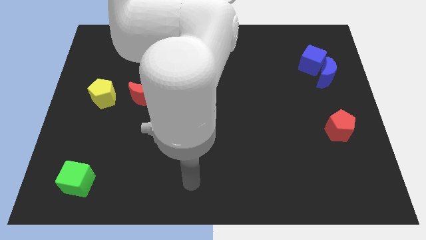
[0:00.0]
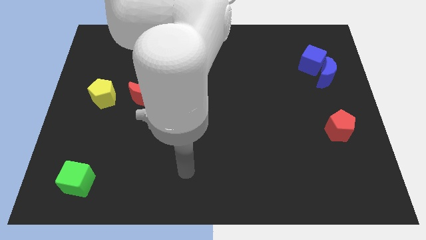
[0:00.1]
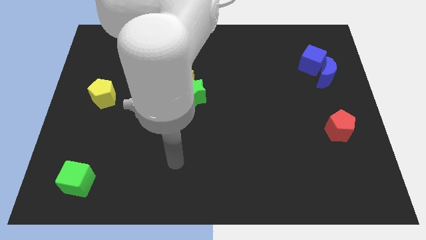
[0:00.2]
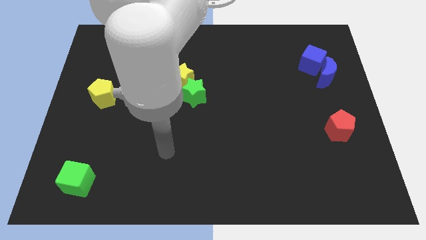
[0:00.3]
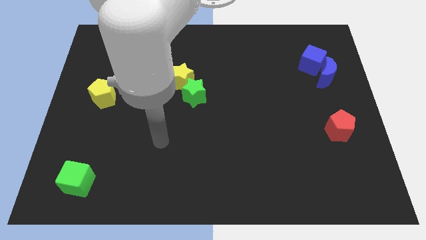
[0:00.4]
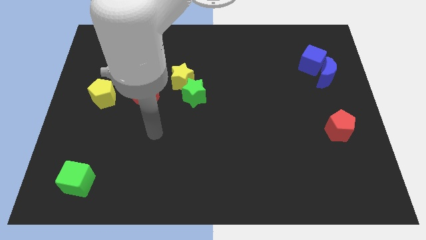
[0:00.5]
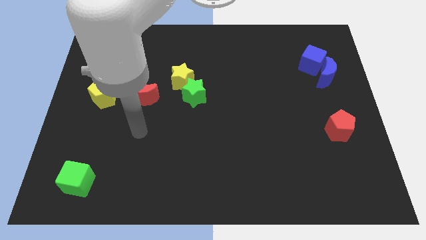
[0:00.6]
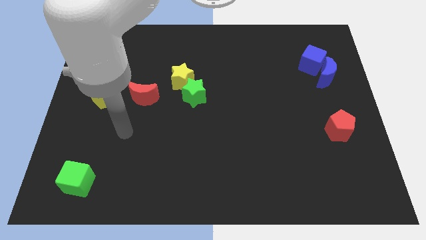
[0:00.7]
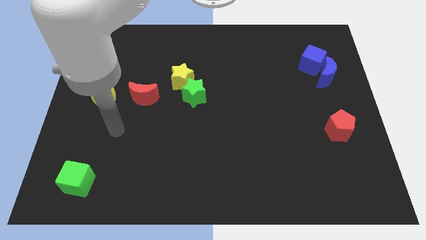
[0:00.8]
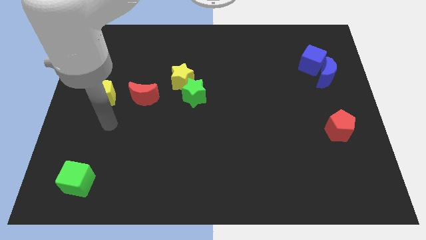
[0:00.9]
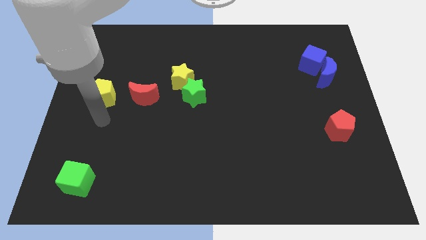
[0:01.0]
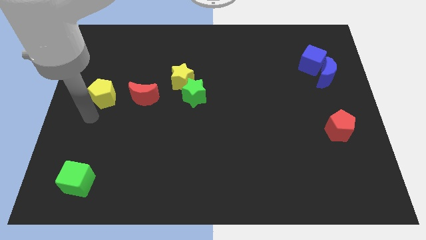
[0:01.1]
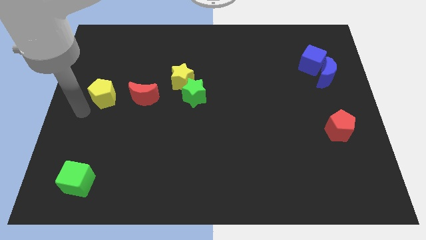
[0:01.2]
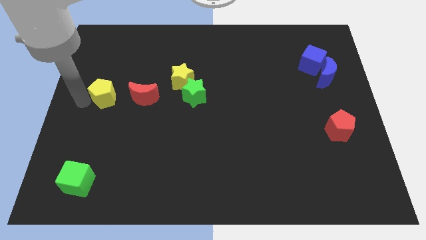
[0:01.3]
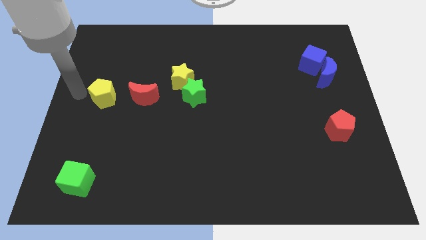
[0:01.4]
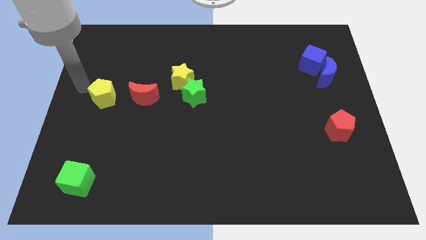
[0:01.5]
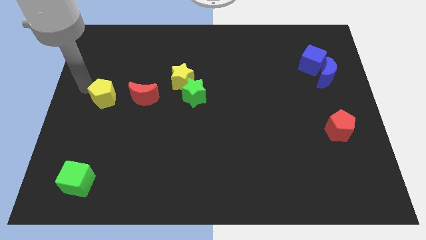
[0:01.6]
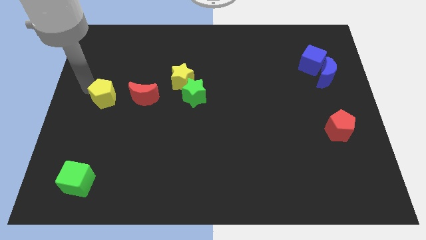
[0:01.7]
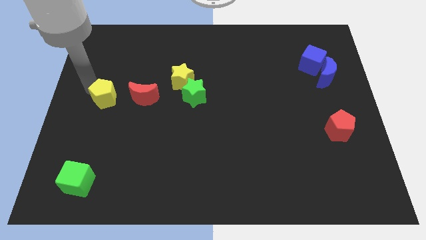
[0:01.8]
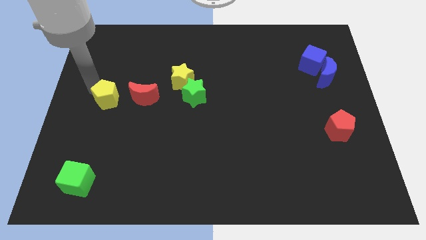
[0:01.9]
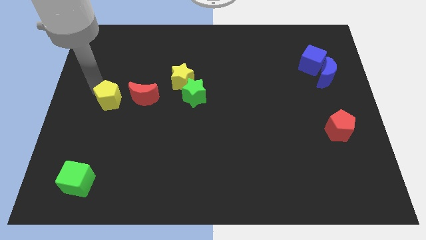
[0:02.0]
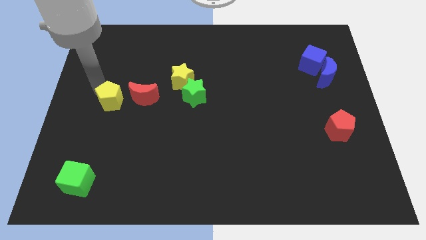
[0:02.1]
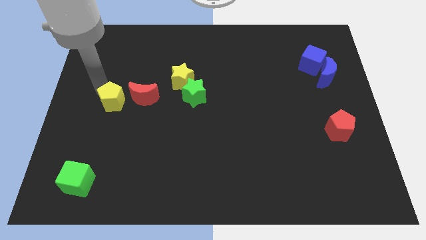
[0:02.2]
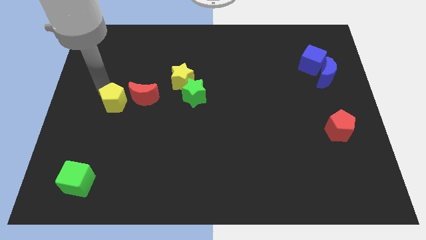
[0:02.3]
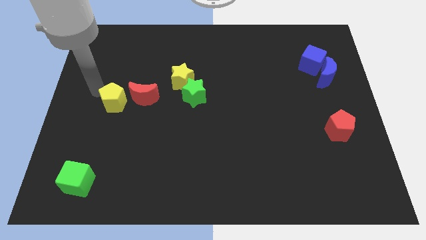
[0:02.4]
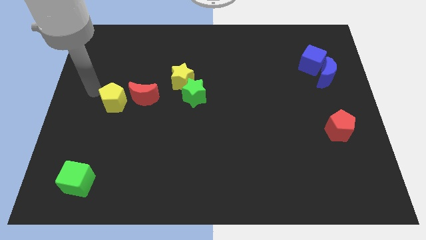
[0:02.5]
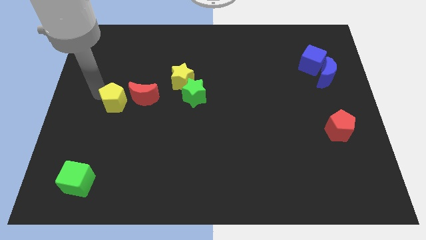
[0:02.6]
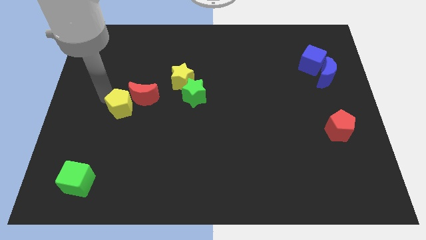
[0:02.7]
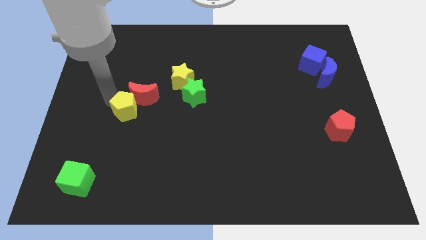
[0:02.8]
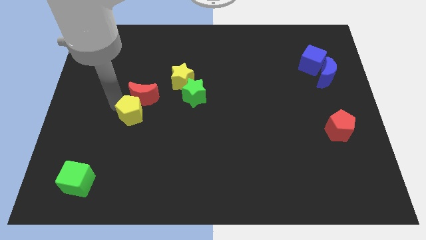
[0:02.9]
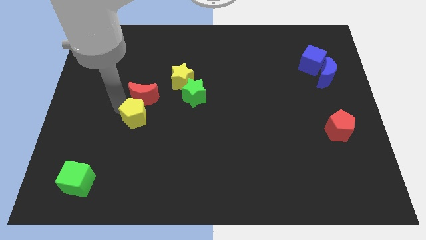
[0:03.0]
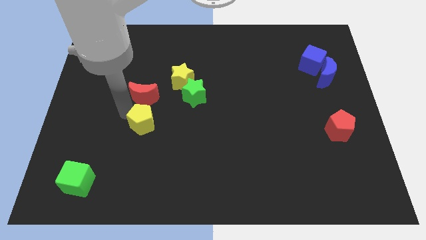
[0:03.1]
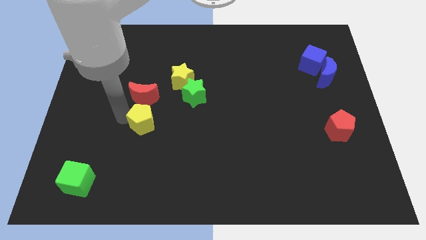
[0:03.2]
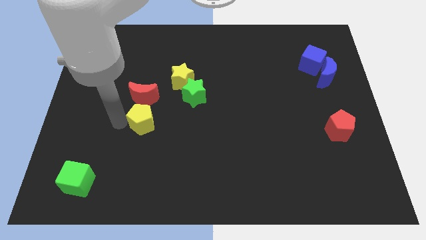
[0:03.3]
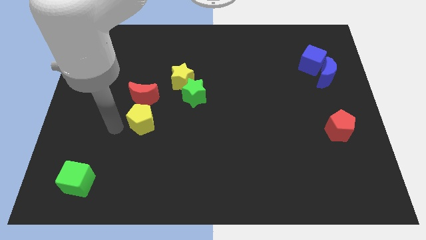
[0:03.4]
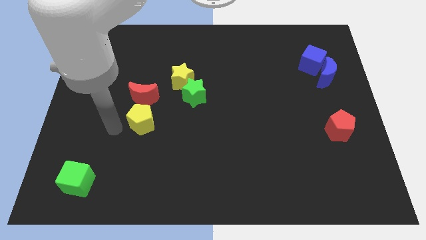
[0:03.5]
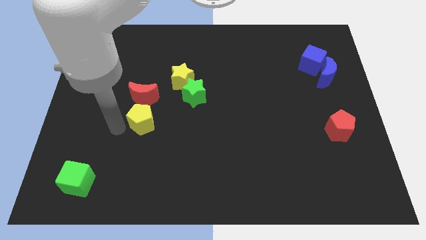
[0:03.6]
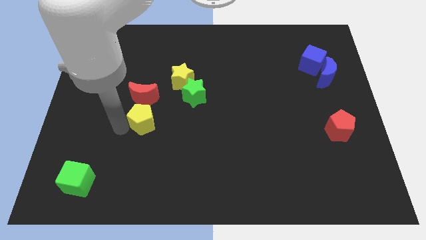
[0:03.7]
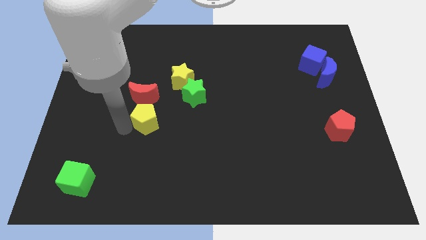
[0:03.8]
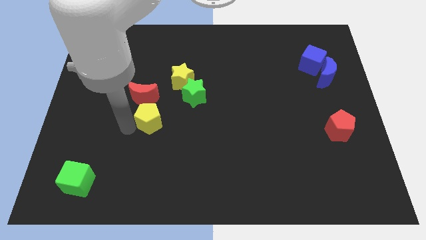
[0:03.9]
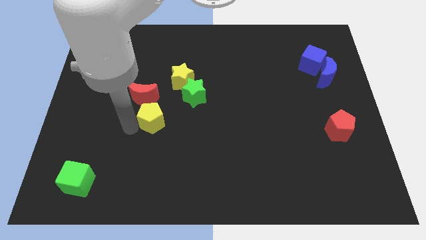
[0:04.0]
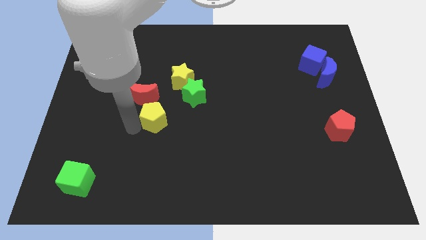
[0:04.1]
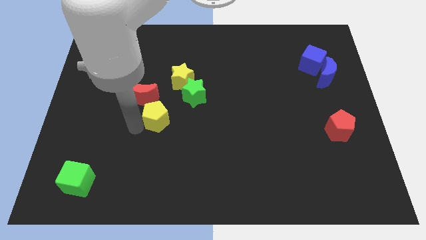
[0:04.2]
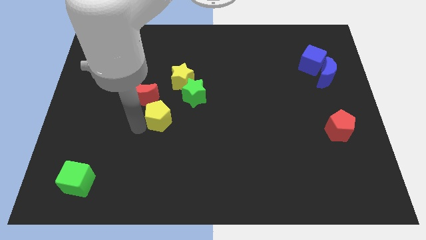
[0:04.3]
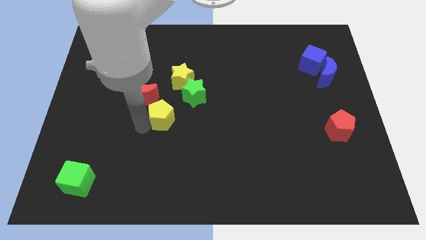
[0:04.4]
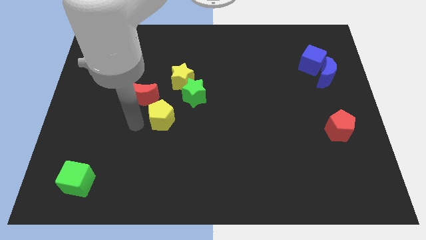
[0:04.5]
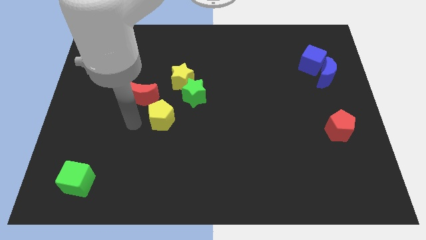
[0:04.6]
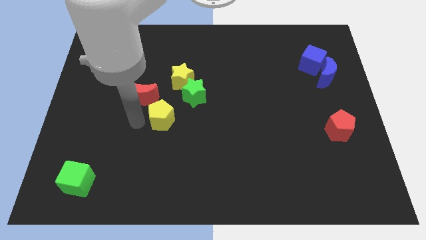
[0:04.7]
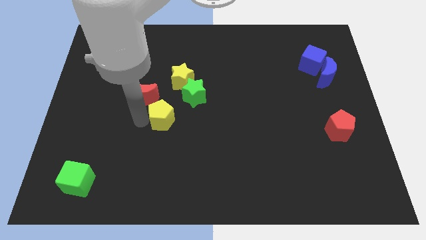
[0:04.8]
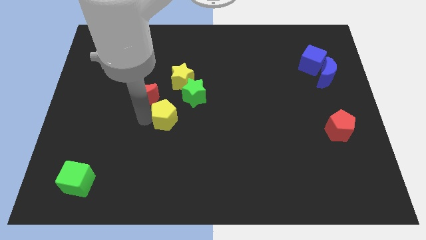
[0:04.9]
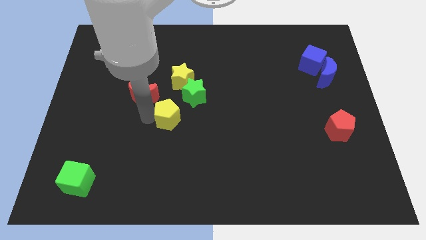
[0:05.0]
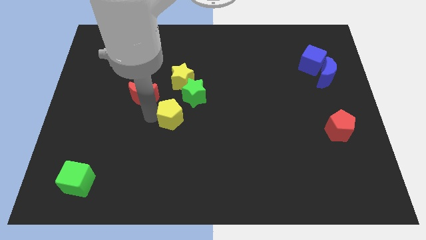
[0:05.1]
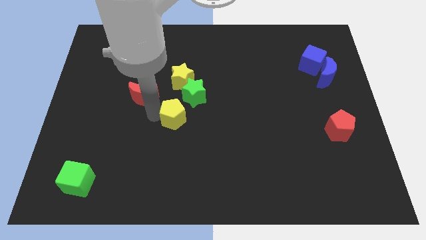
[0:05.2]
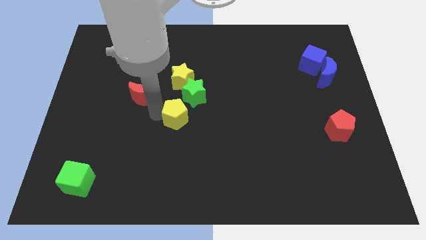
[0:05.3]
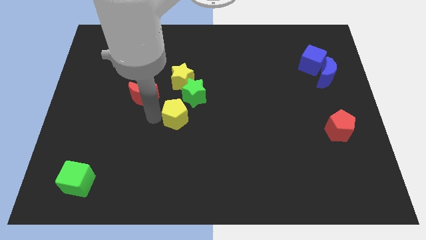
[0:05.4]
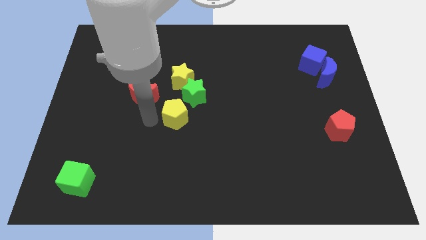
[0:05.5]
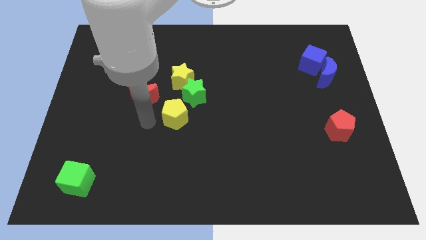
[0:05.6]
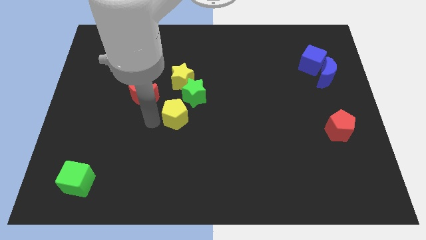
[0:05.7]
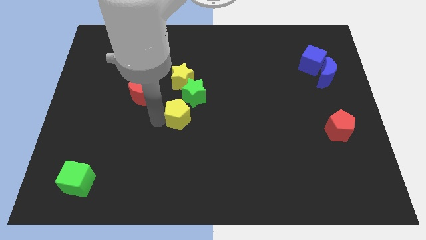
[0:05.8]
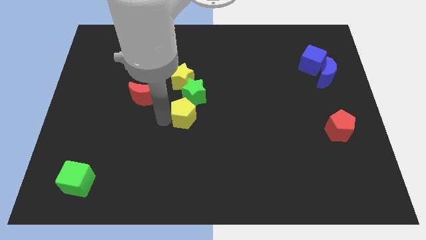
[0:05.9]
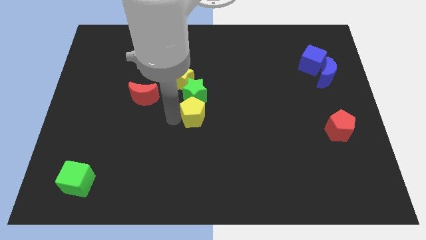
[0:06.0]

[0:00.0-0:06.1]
slide the yellow pentagon to the right

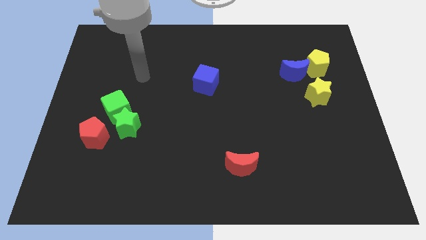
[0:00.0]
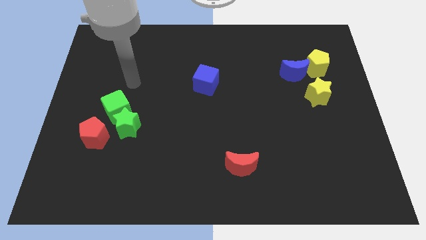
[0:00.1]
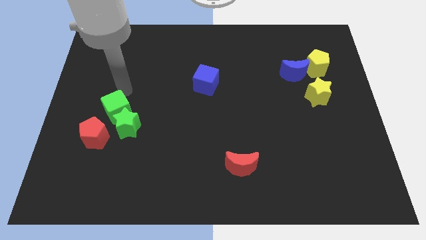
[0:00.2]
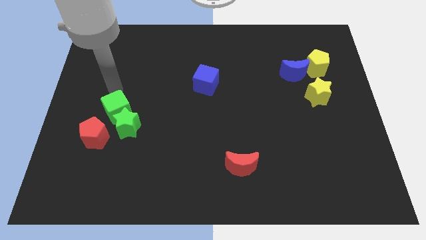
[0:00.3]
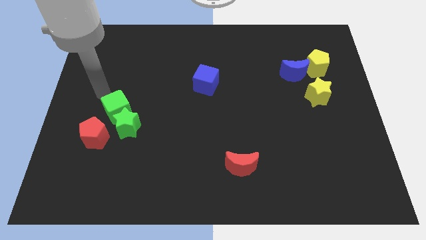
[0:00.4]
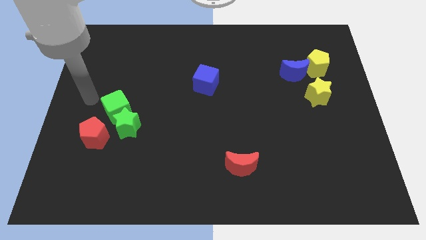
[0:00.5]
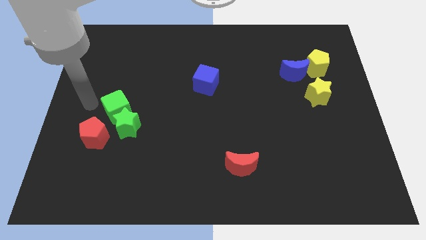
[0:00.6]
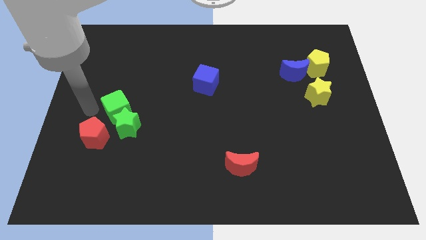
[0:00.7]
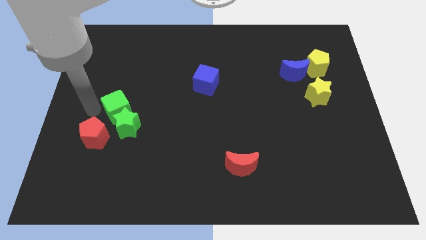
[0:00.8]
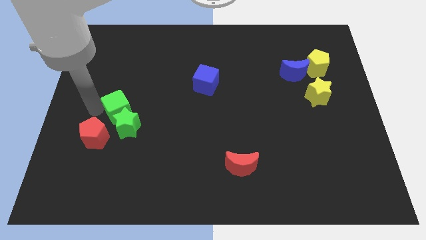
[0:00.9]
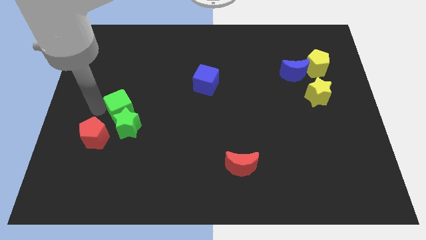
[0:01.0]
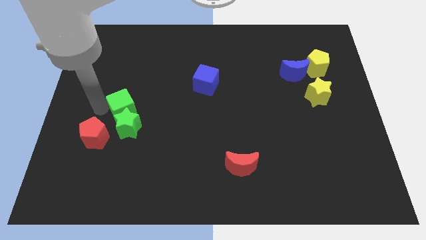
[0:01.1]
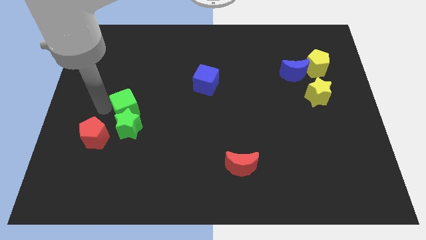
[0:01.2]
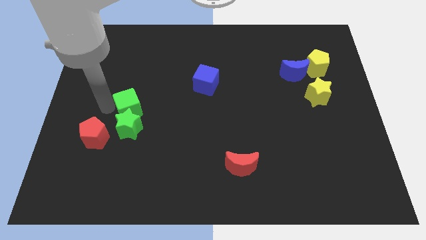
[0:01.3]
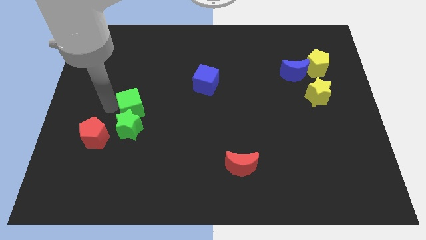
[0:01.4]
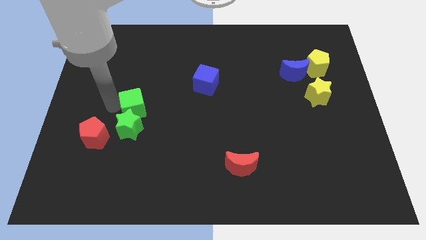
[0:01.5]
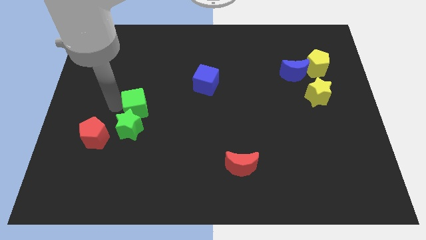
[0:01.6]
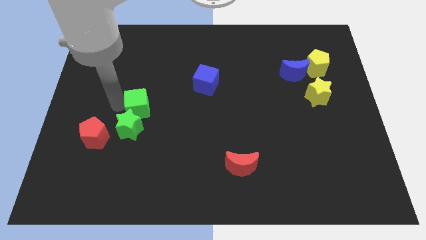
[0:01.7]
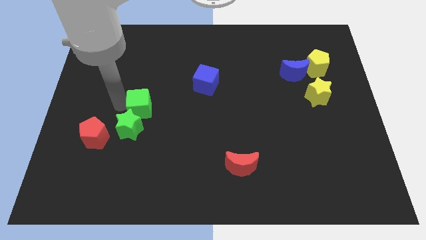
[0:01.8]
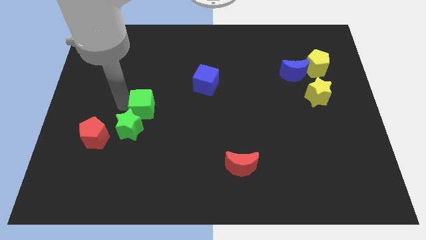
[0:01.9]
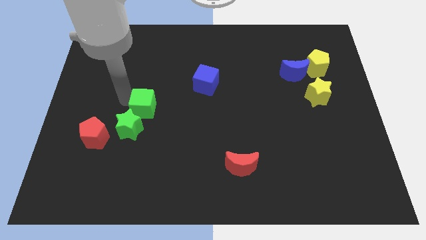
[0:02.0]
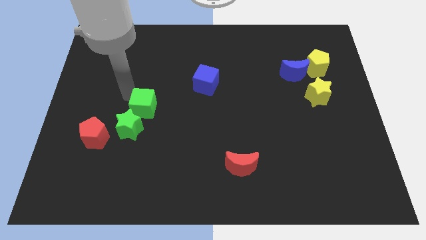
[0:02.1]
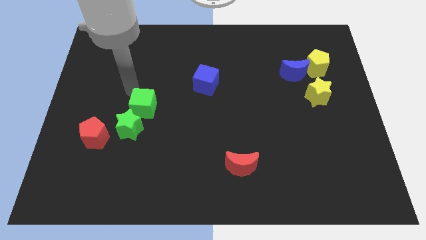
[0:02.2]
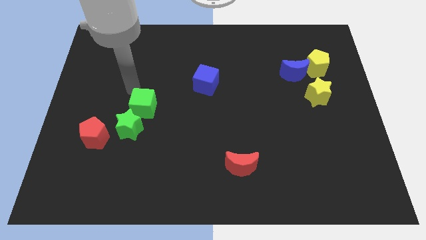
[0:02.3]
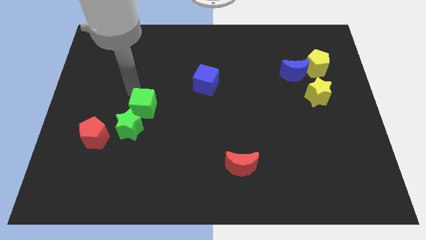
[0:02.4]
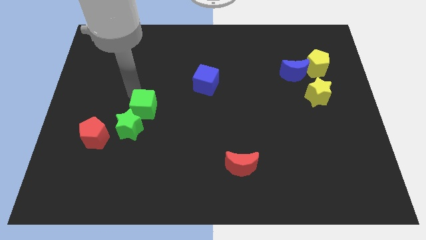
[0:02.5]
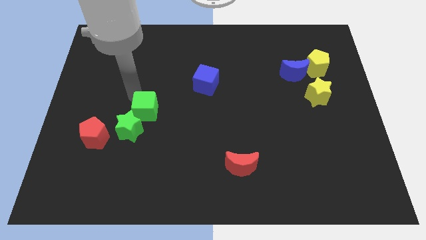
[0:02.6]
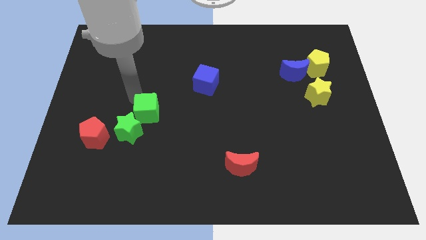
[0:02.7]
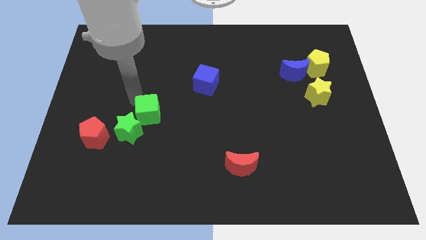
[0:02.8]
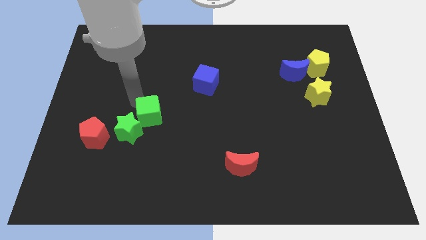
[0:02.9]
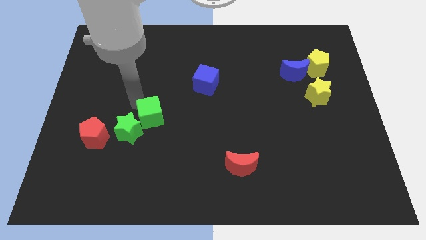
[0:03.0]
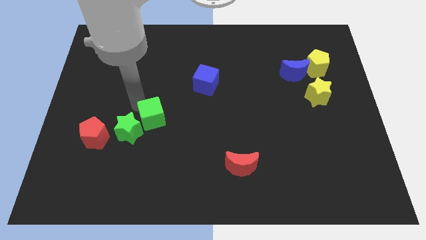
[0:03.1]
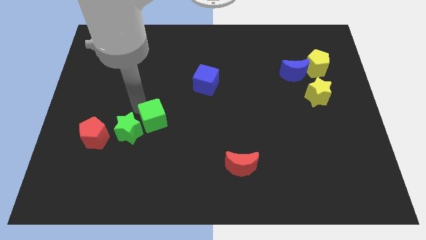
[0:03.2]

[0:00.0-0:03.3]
slide the green cube a bit downwards and right
